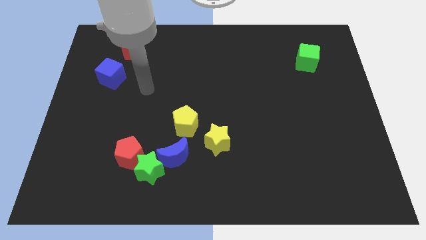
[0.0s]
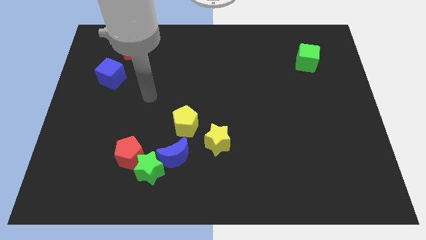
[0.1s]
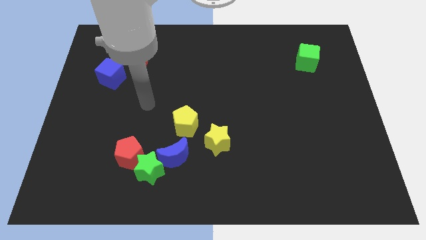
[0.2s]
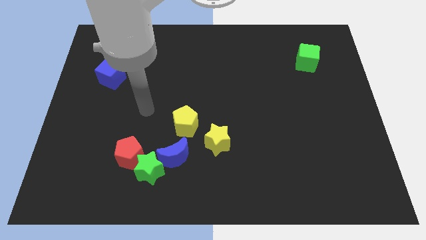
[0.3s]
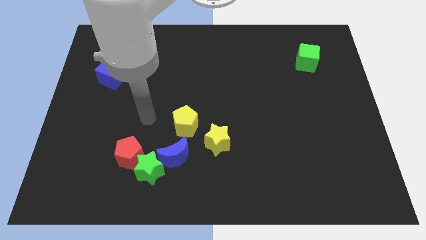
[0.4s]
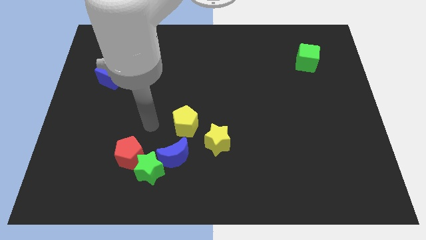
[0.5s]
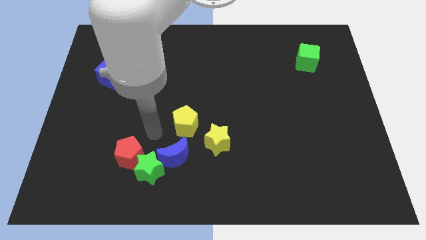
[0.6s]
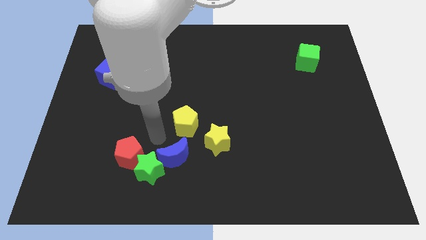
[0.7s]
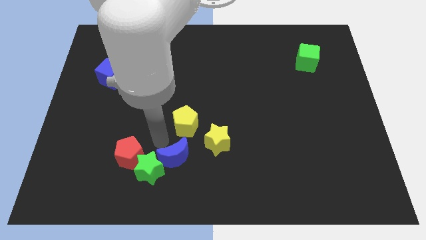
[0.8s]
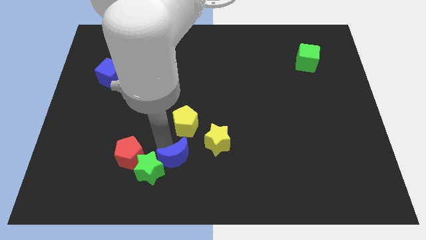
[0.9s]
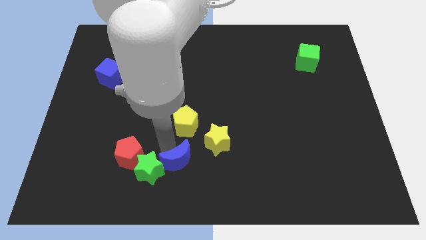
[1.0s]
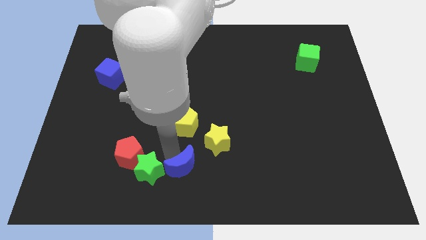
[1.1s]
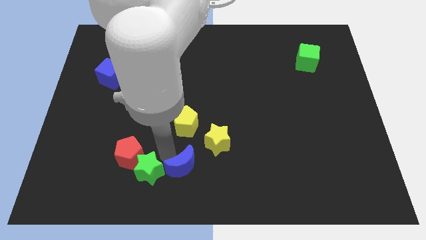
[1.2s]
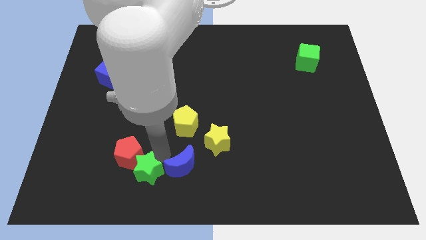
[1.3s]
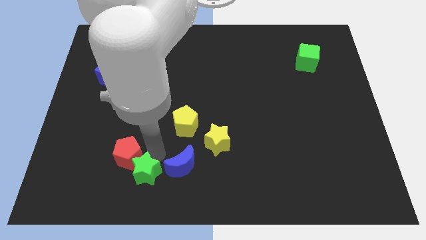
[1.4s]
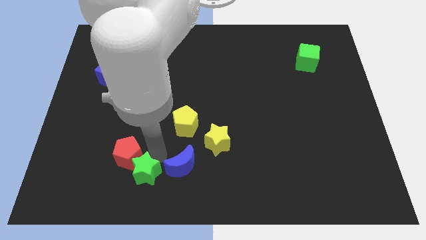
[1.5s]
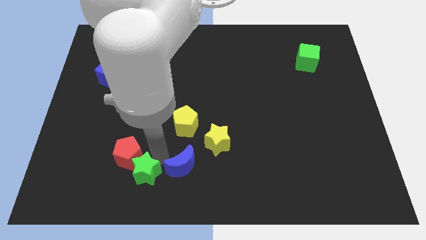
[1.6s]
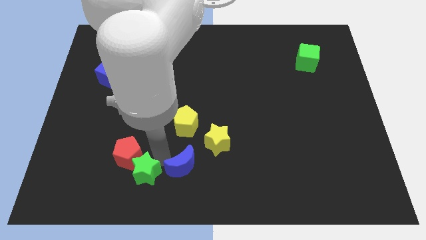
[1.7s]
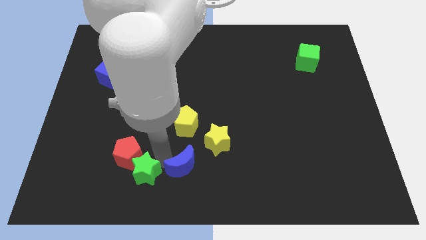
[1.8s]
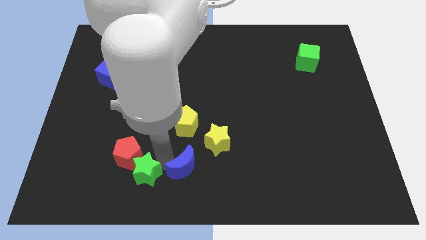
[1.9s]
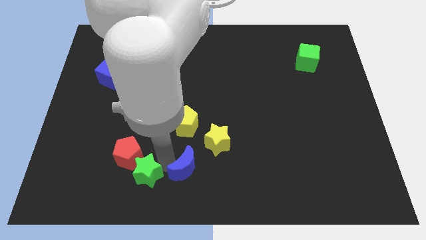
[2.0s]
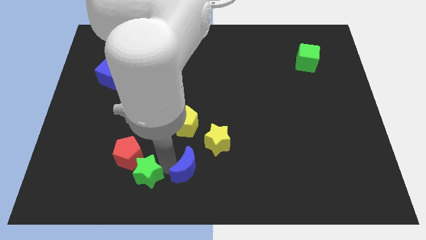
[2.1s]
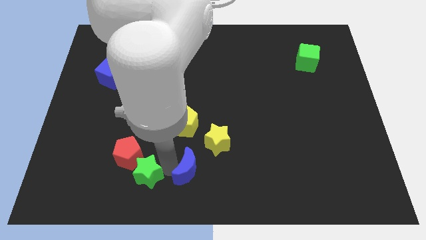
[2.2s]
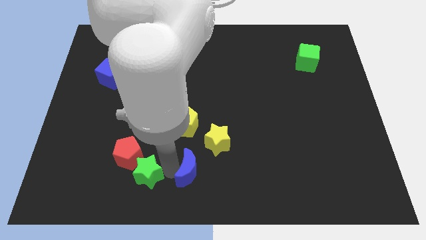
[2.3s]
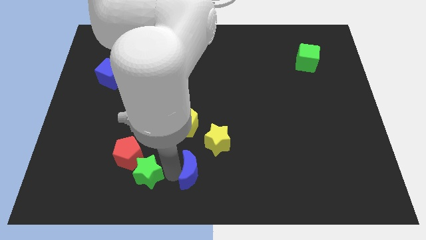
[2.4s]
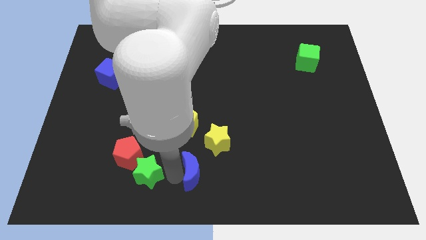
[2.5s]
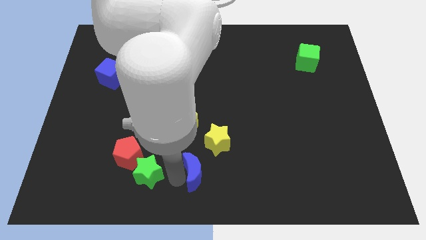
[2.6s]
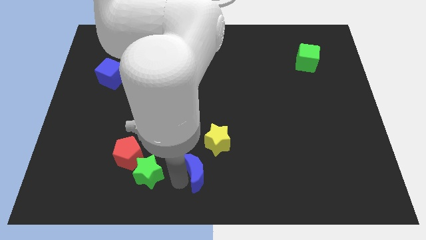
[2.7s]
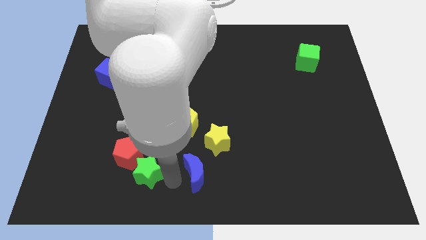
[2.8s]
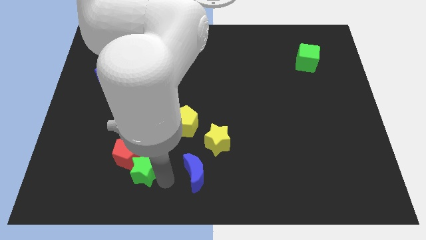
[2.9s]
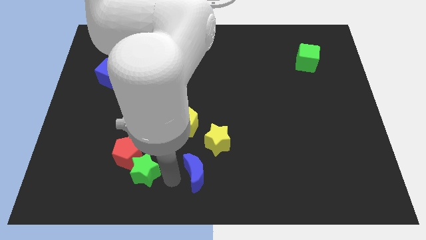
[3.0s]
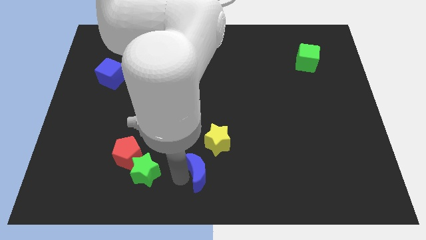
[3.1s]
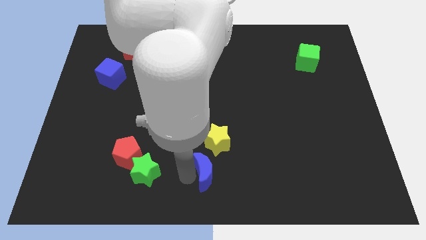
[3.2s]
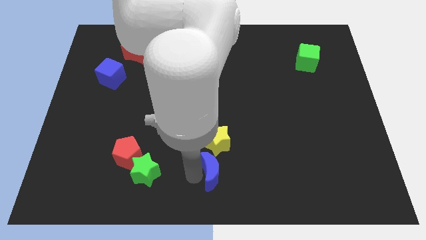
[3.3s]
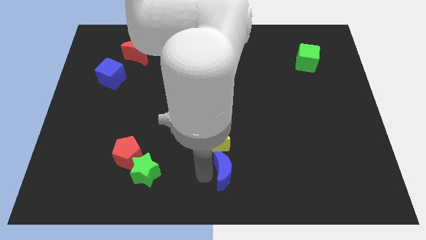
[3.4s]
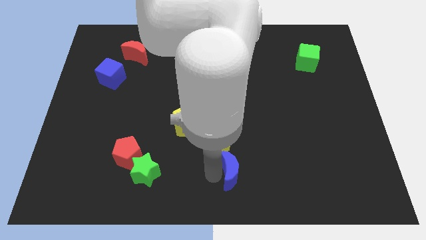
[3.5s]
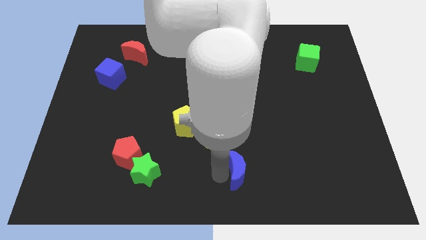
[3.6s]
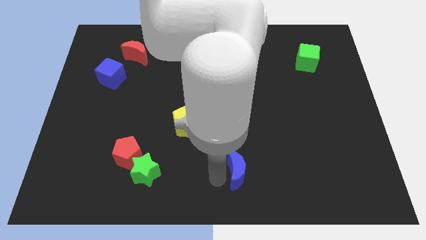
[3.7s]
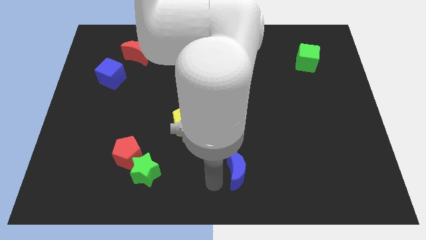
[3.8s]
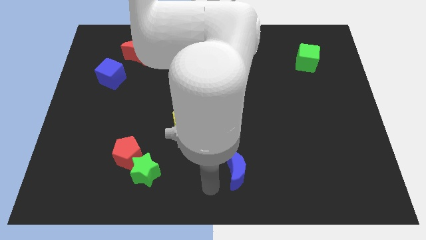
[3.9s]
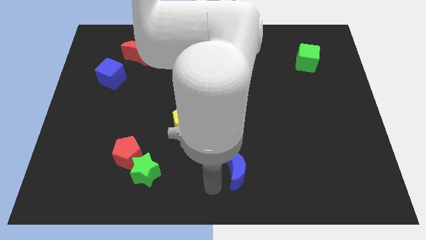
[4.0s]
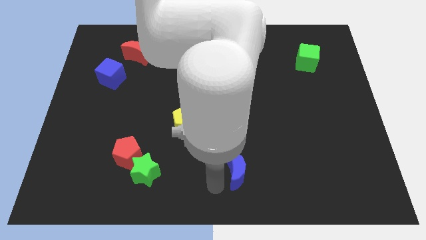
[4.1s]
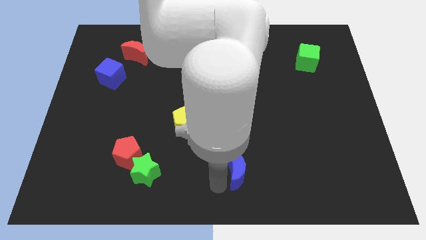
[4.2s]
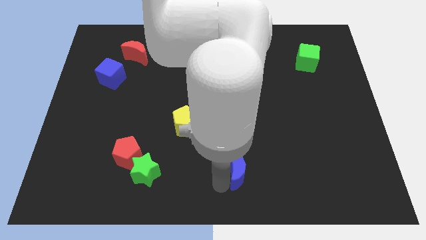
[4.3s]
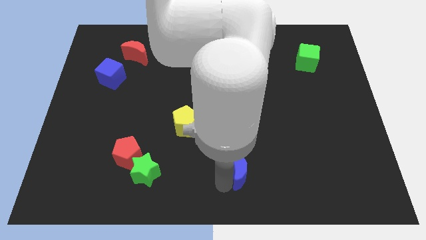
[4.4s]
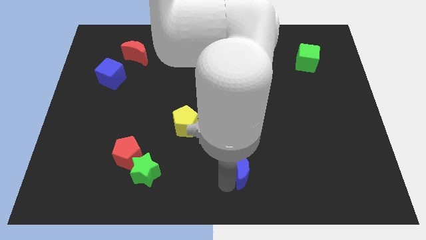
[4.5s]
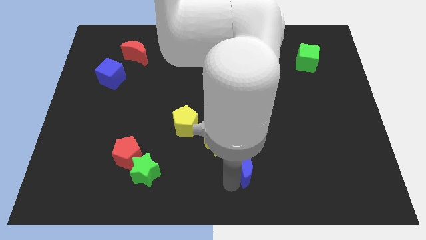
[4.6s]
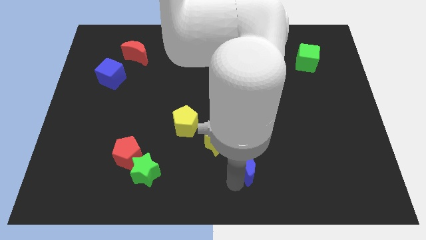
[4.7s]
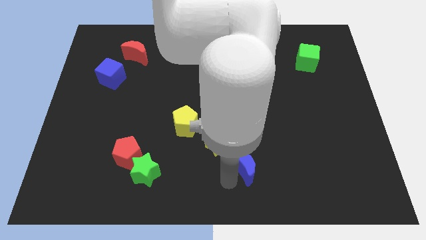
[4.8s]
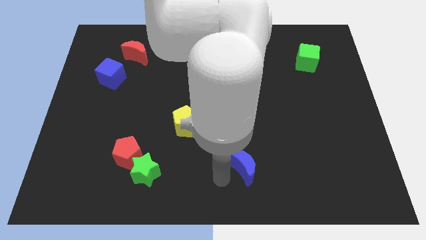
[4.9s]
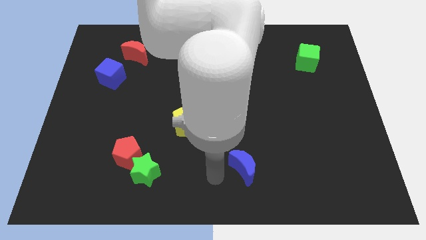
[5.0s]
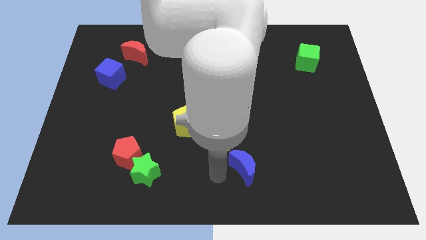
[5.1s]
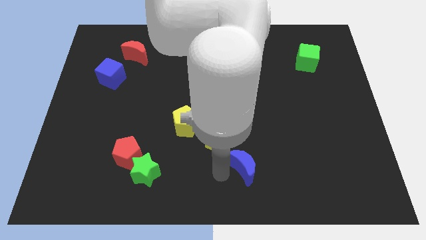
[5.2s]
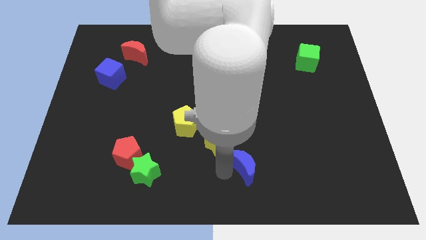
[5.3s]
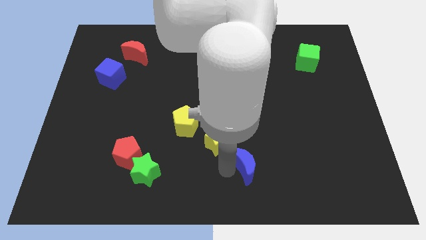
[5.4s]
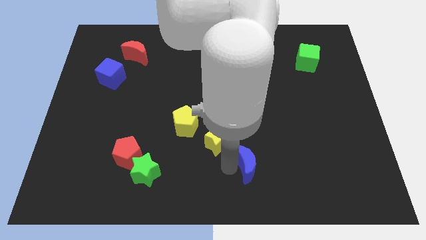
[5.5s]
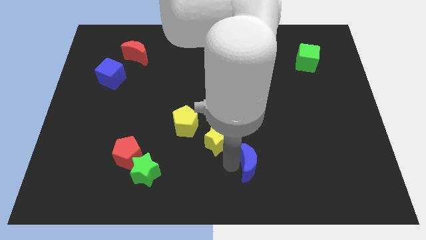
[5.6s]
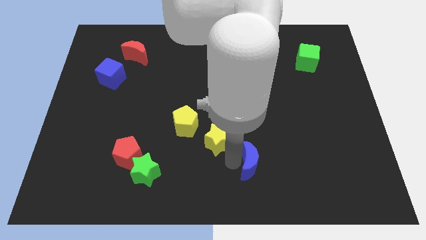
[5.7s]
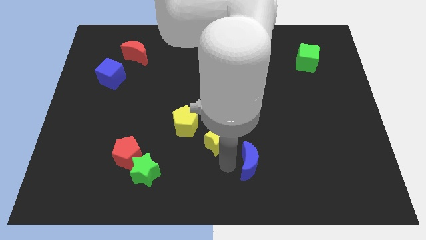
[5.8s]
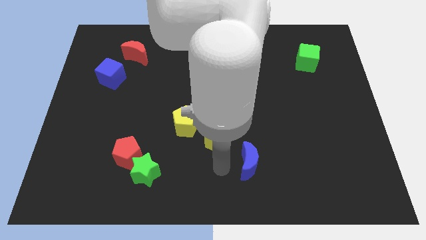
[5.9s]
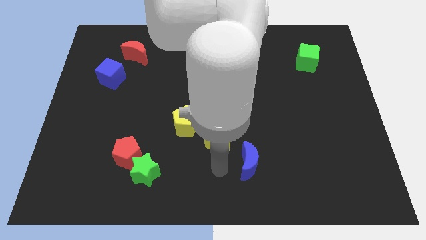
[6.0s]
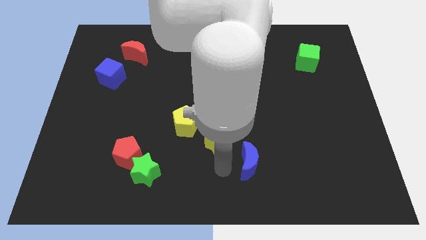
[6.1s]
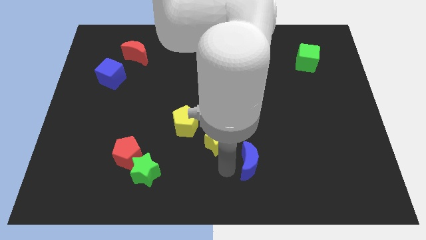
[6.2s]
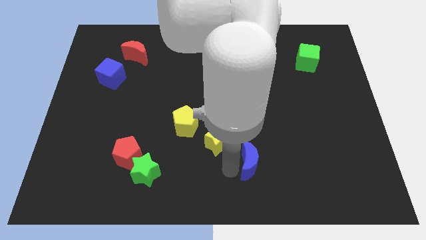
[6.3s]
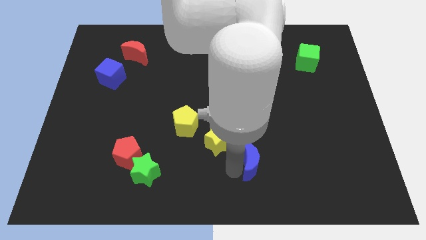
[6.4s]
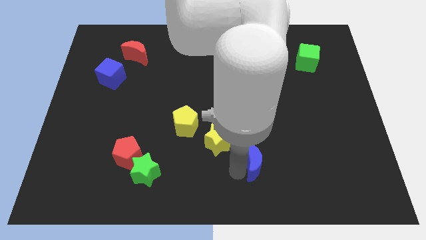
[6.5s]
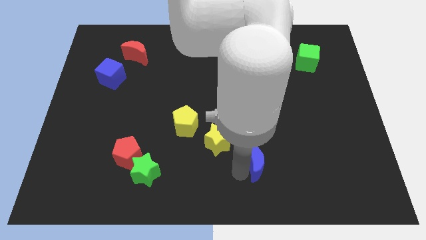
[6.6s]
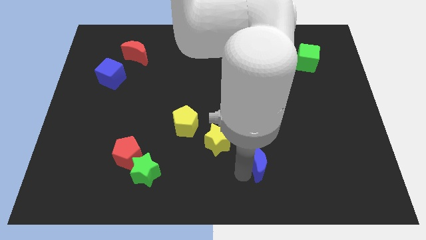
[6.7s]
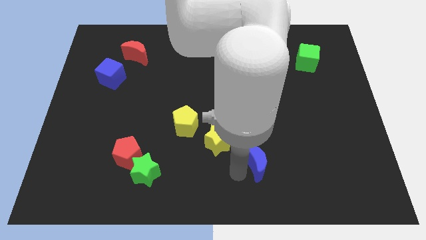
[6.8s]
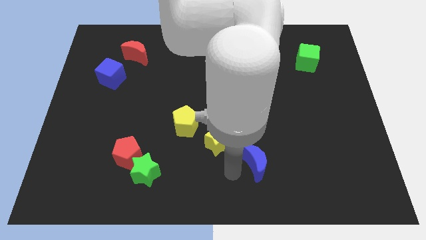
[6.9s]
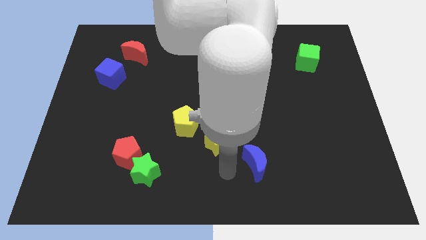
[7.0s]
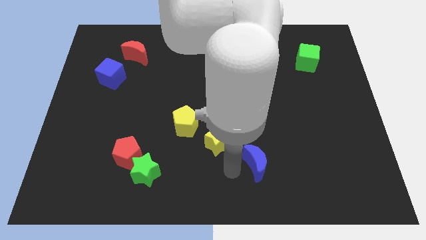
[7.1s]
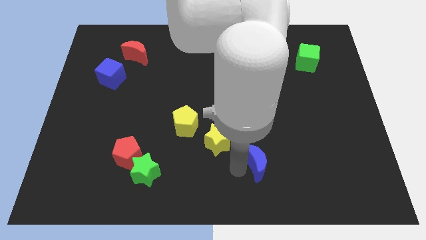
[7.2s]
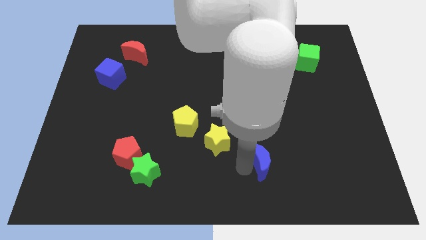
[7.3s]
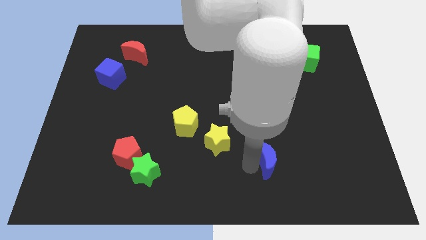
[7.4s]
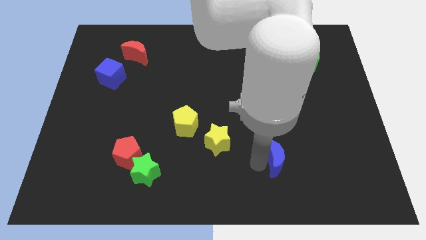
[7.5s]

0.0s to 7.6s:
slide the blue moon right

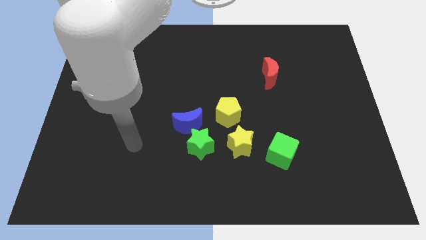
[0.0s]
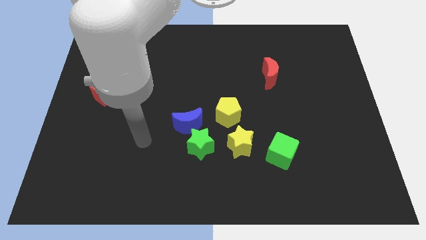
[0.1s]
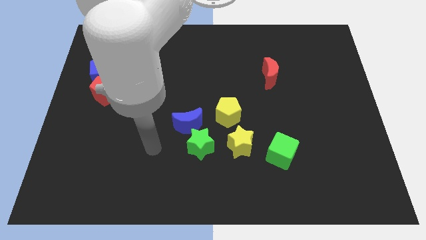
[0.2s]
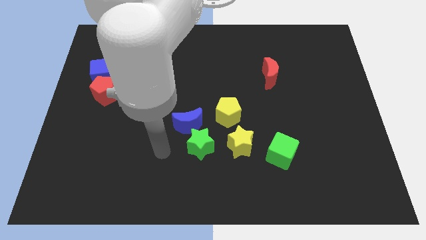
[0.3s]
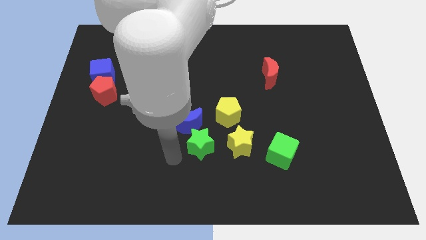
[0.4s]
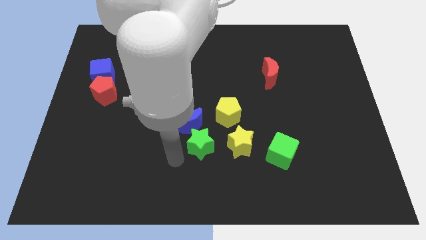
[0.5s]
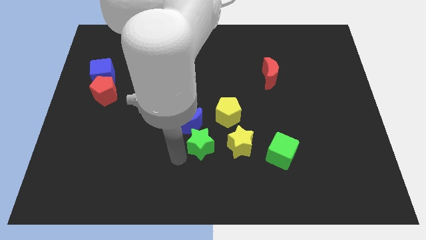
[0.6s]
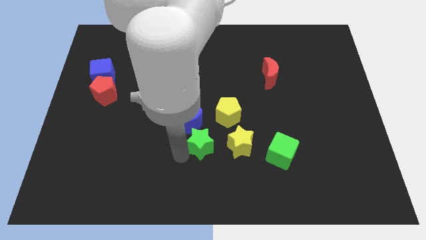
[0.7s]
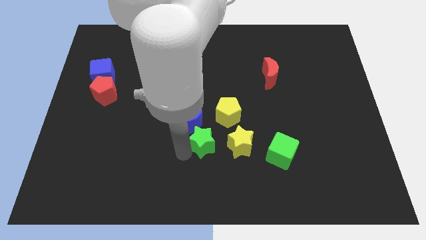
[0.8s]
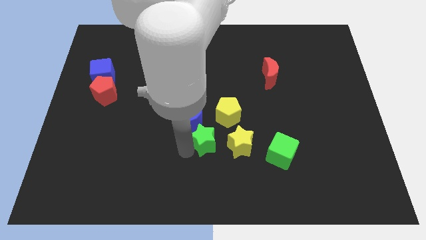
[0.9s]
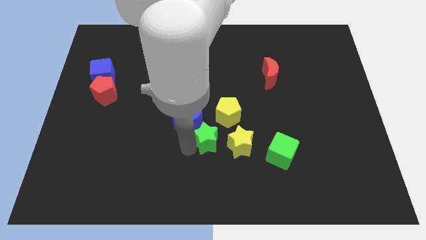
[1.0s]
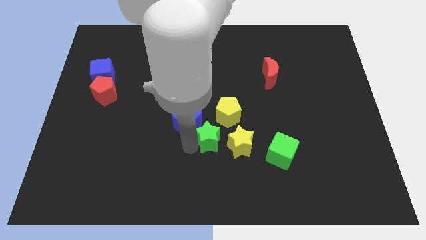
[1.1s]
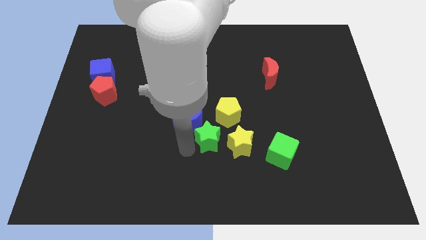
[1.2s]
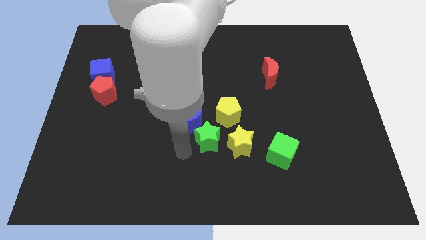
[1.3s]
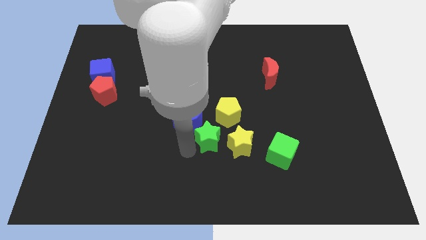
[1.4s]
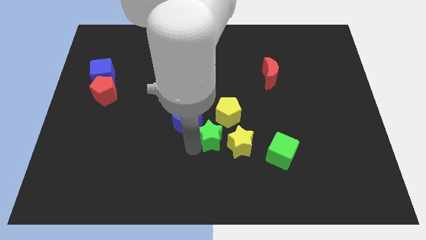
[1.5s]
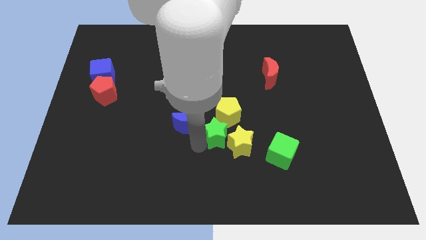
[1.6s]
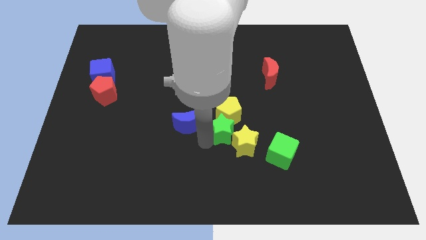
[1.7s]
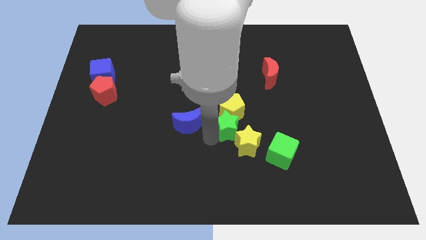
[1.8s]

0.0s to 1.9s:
slightly move the green star diagonally upwards and right
